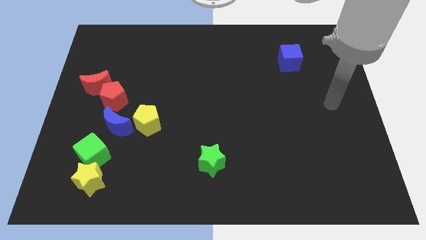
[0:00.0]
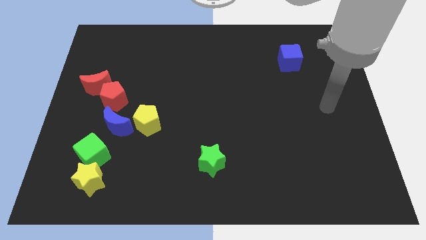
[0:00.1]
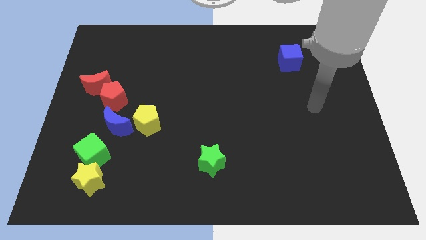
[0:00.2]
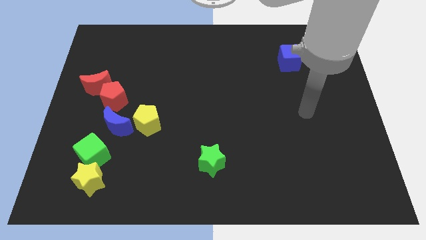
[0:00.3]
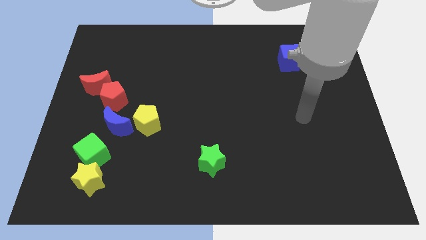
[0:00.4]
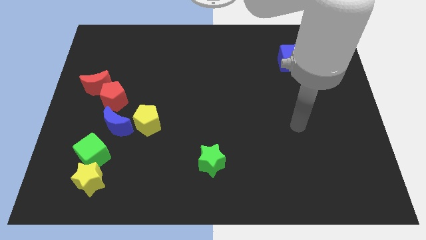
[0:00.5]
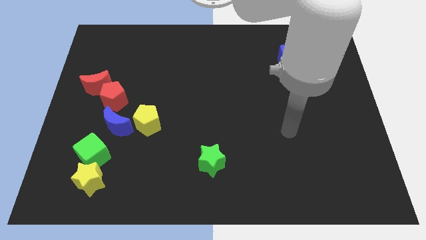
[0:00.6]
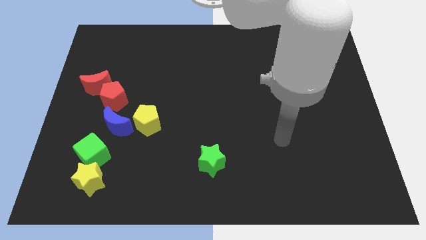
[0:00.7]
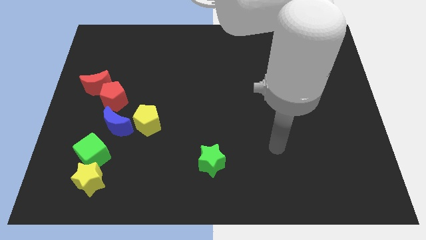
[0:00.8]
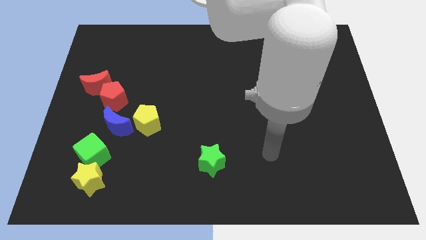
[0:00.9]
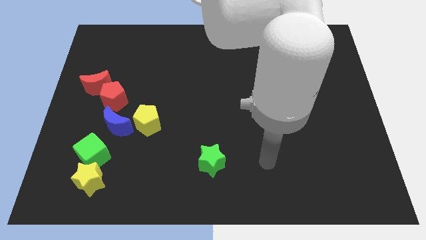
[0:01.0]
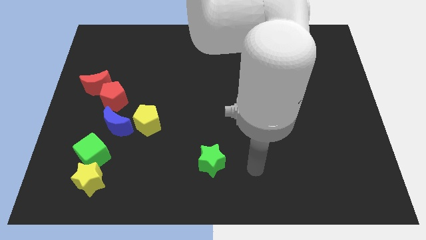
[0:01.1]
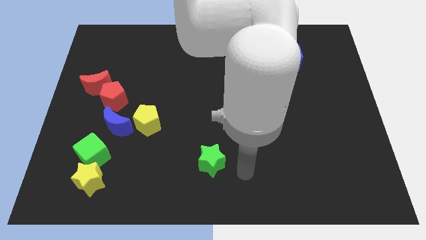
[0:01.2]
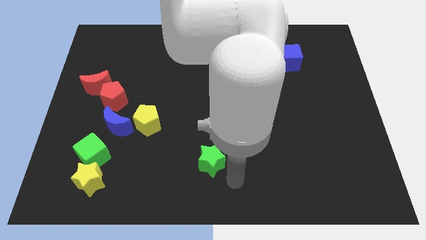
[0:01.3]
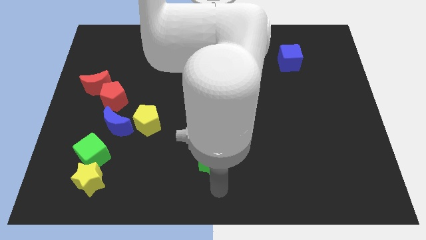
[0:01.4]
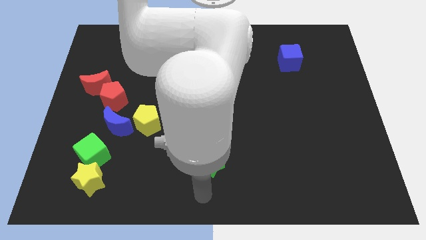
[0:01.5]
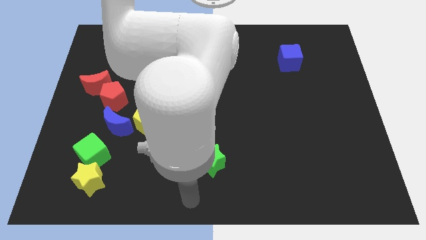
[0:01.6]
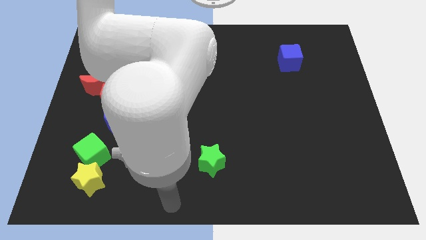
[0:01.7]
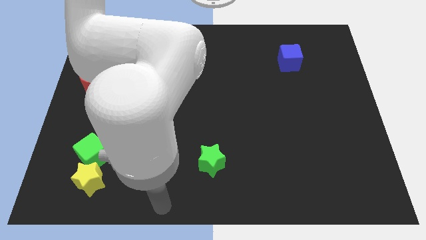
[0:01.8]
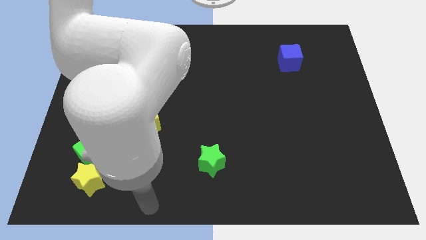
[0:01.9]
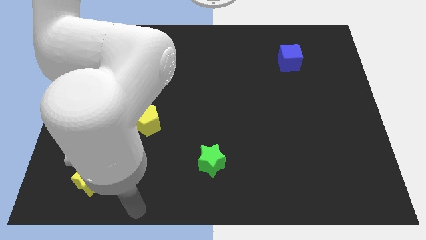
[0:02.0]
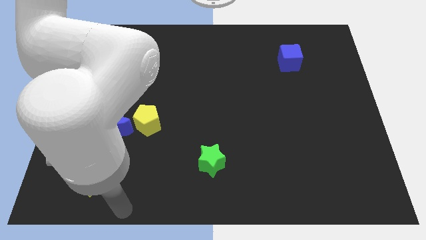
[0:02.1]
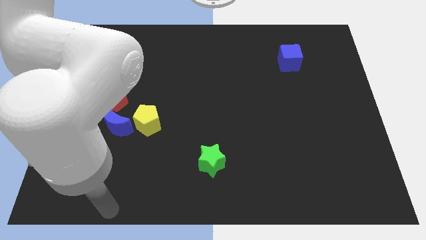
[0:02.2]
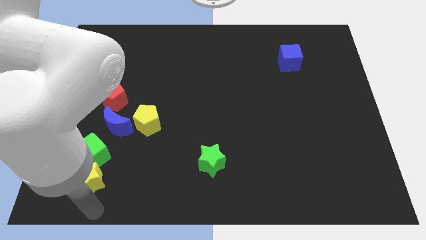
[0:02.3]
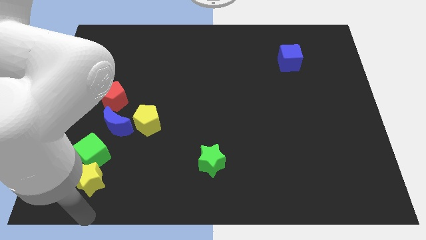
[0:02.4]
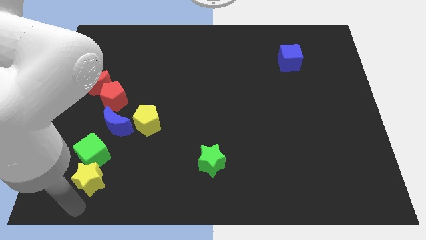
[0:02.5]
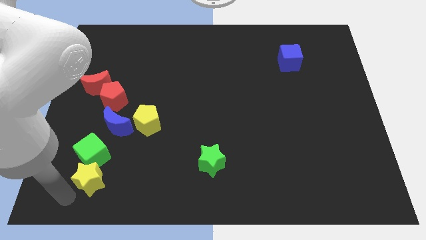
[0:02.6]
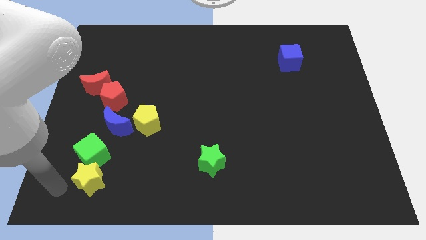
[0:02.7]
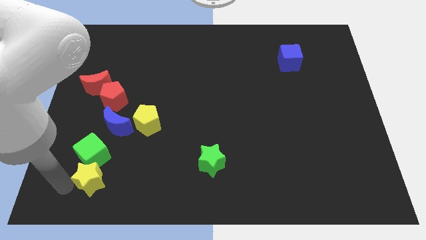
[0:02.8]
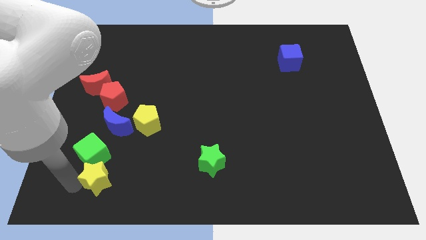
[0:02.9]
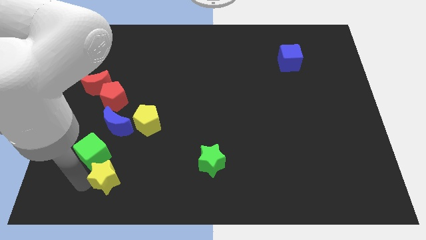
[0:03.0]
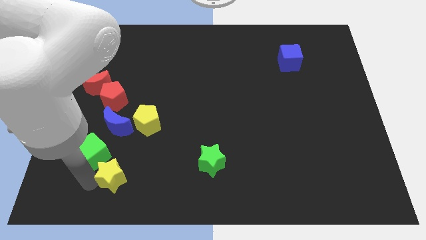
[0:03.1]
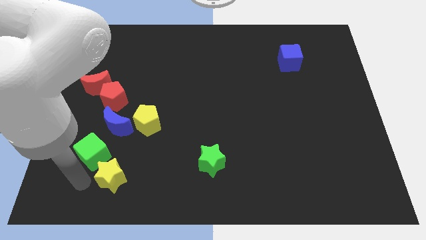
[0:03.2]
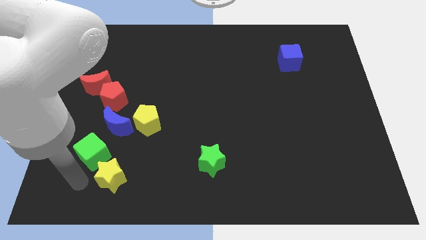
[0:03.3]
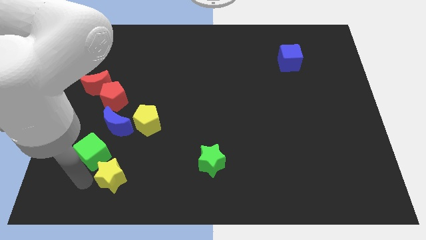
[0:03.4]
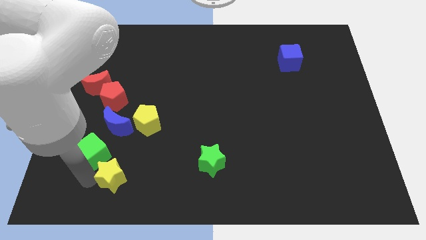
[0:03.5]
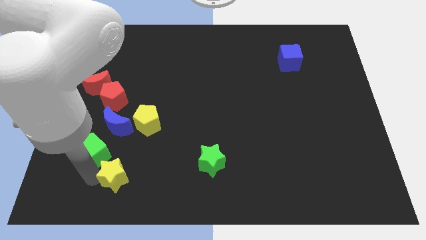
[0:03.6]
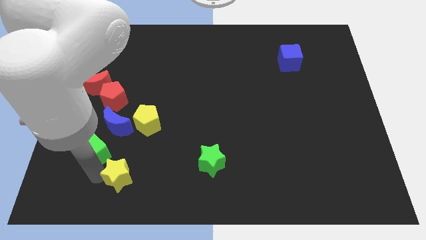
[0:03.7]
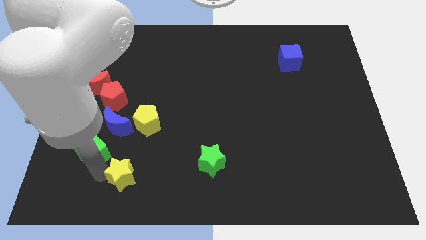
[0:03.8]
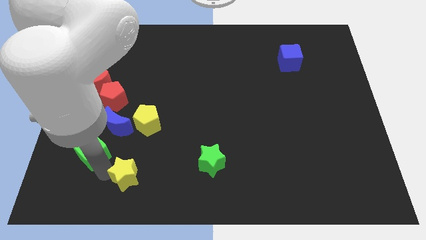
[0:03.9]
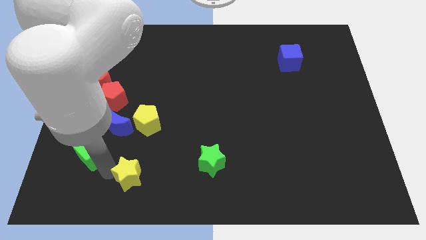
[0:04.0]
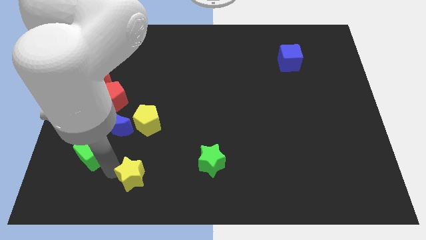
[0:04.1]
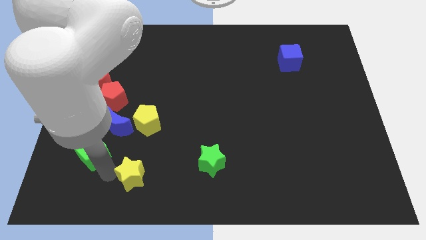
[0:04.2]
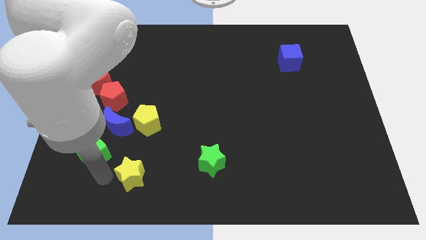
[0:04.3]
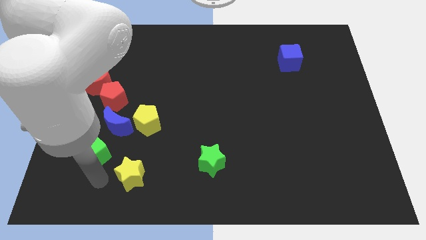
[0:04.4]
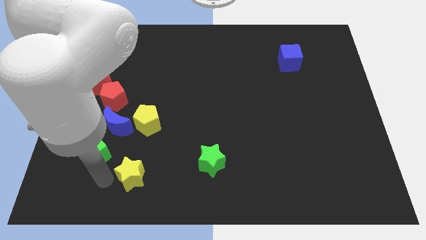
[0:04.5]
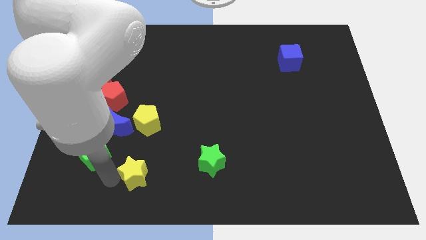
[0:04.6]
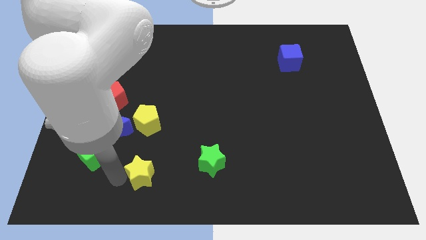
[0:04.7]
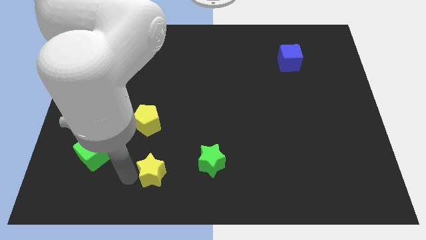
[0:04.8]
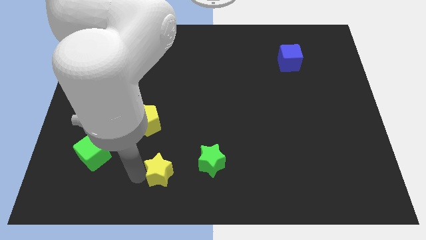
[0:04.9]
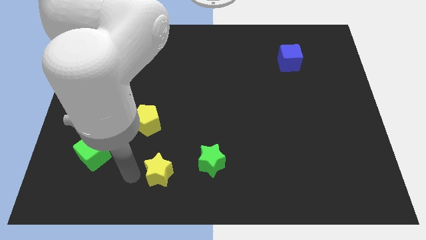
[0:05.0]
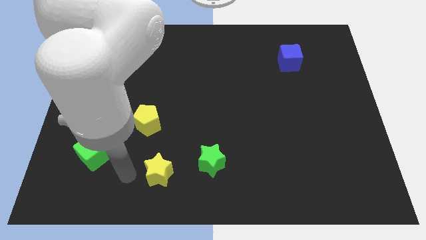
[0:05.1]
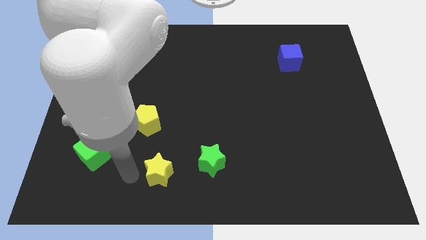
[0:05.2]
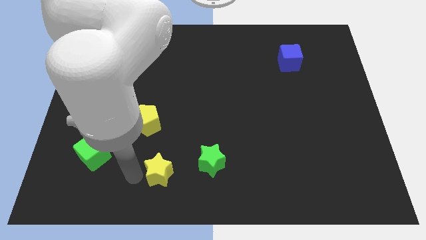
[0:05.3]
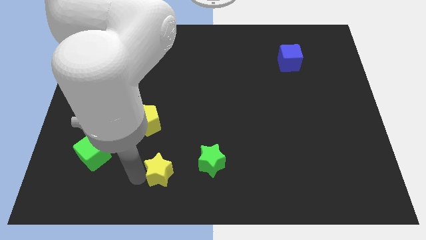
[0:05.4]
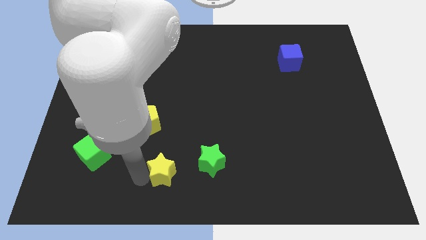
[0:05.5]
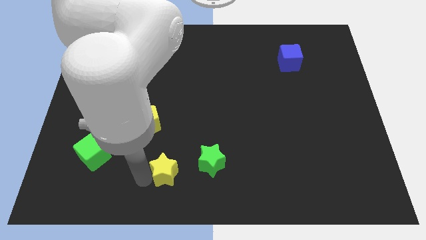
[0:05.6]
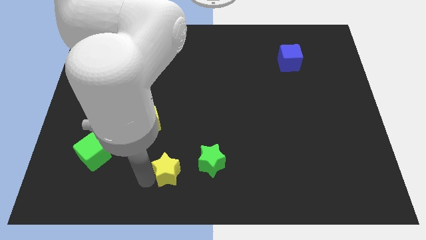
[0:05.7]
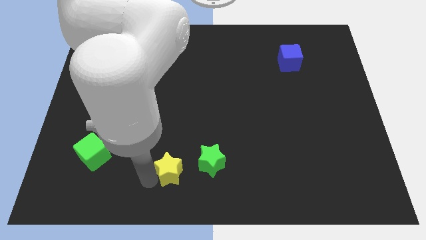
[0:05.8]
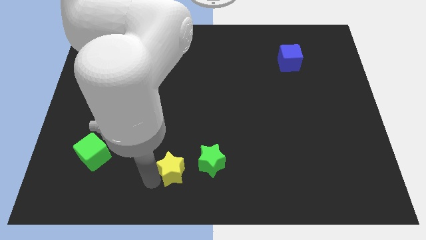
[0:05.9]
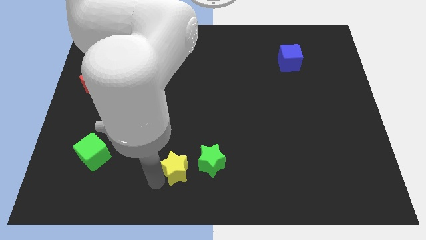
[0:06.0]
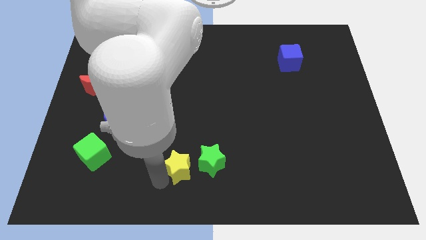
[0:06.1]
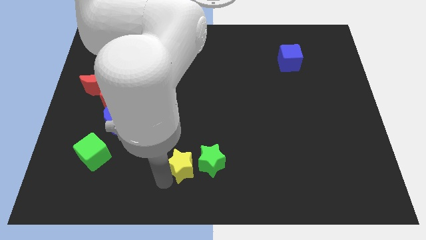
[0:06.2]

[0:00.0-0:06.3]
slide the yellow star next to the green star

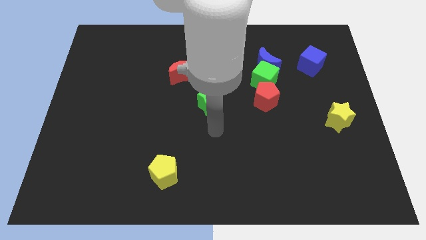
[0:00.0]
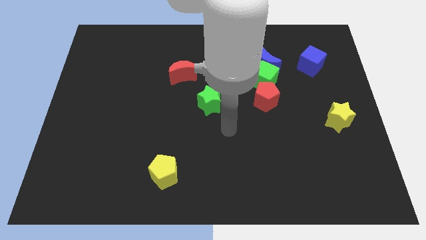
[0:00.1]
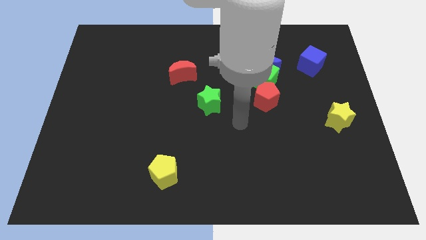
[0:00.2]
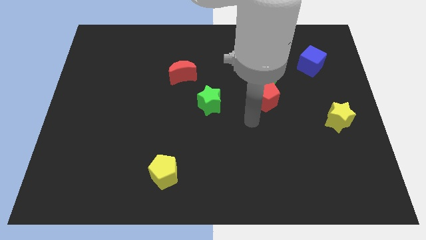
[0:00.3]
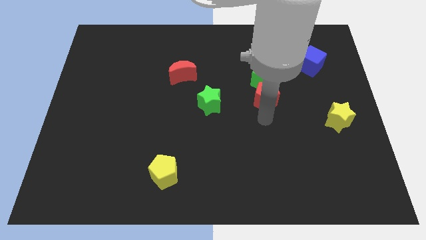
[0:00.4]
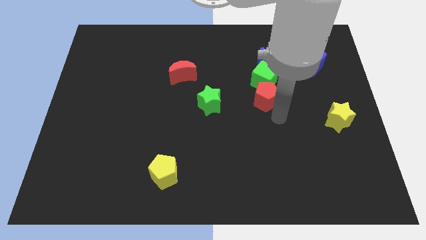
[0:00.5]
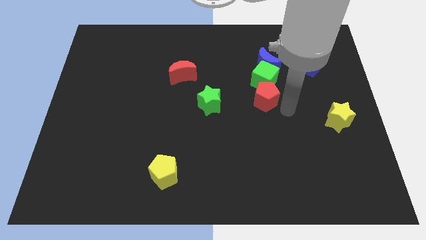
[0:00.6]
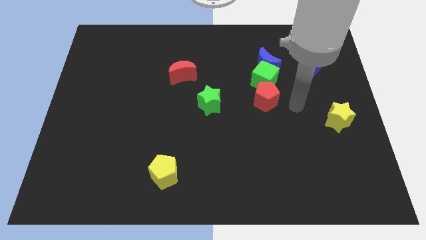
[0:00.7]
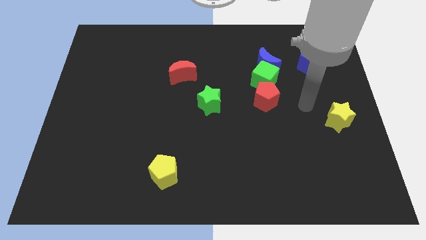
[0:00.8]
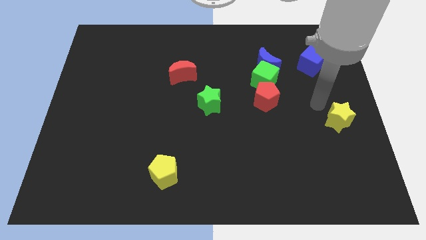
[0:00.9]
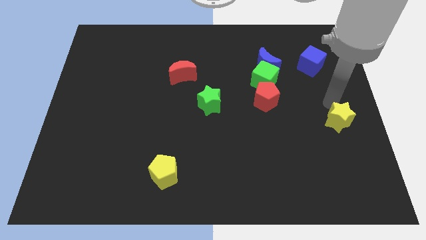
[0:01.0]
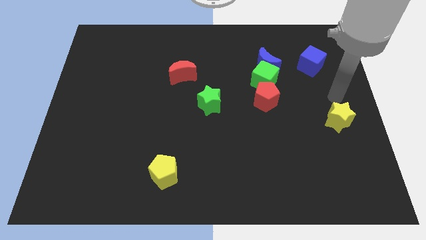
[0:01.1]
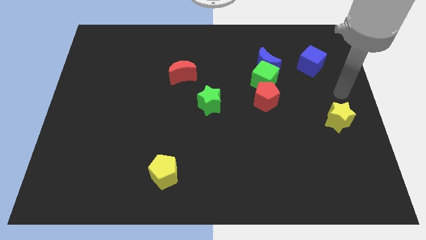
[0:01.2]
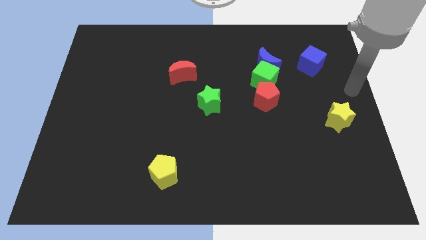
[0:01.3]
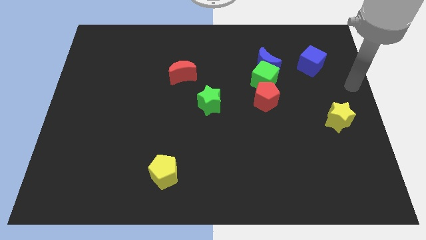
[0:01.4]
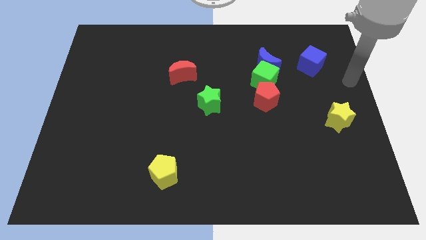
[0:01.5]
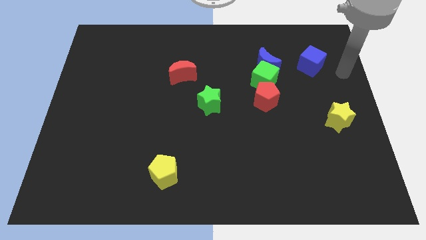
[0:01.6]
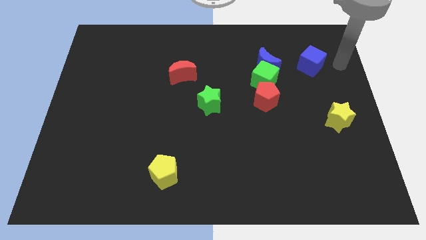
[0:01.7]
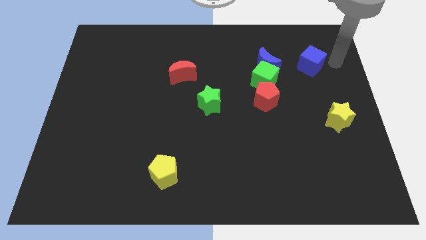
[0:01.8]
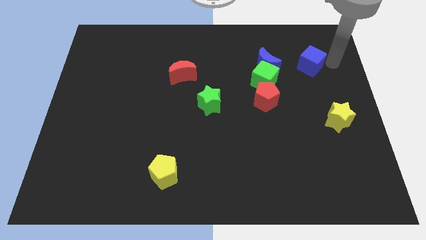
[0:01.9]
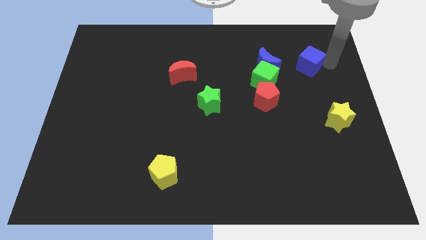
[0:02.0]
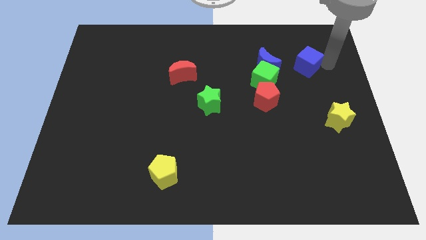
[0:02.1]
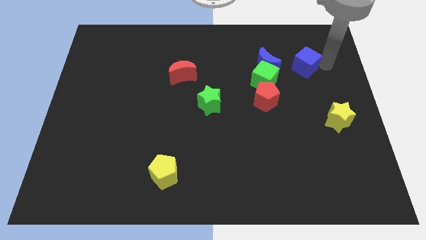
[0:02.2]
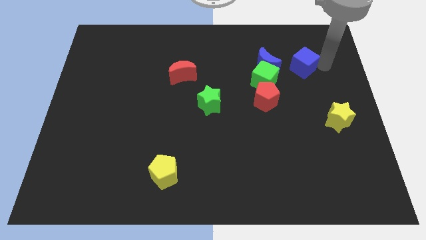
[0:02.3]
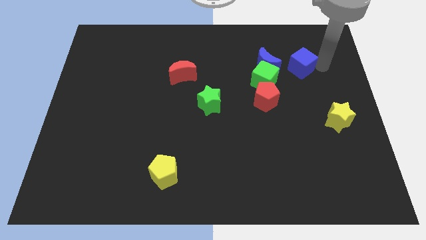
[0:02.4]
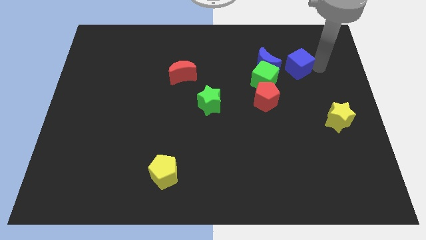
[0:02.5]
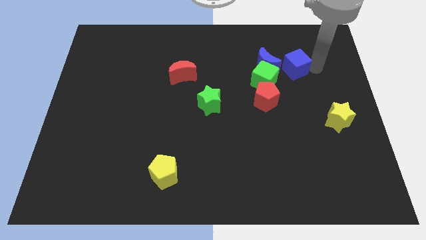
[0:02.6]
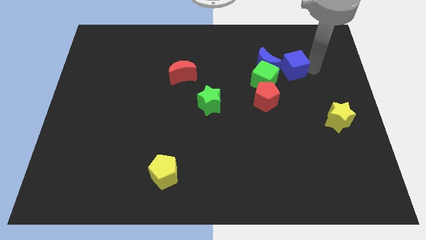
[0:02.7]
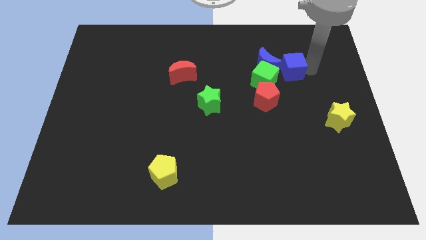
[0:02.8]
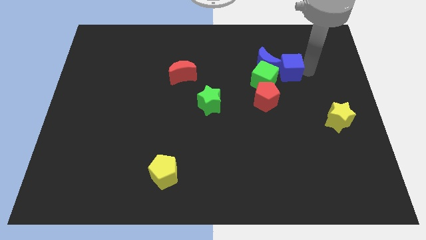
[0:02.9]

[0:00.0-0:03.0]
put the blue cube close to the blue moon
